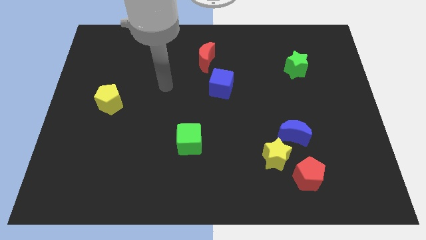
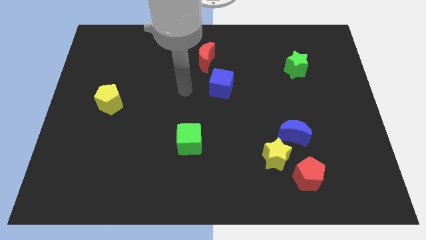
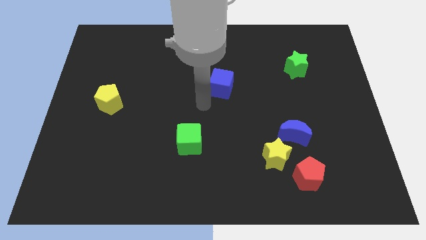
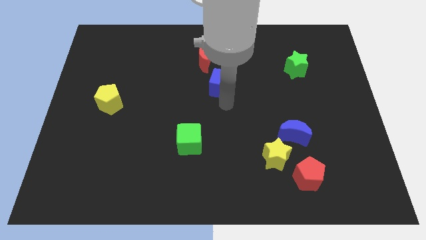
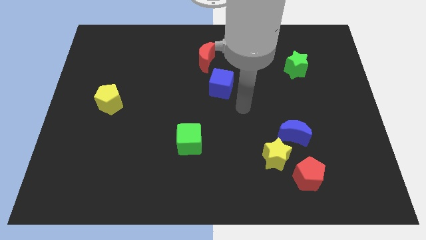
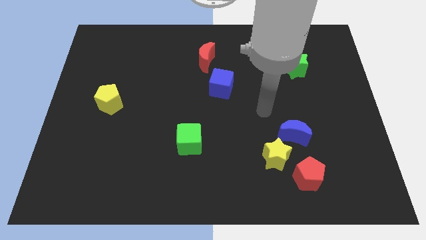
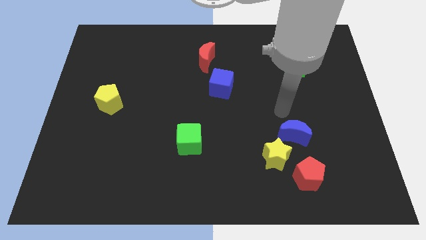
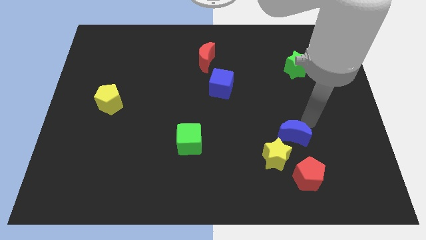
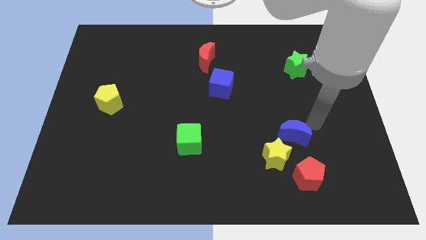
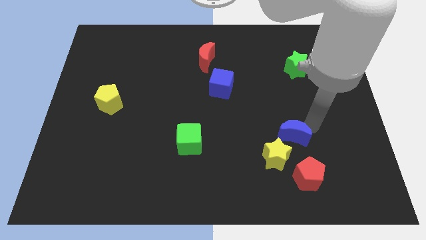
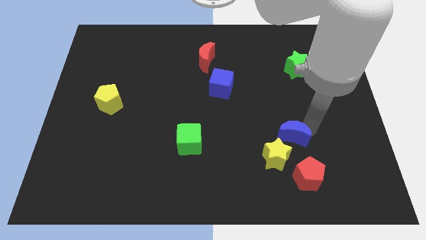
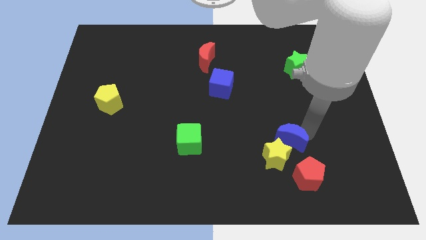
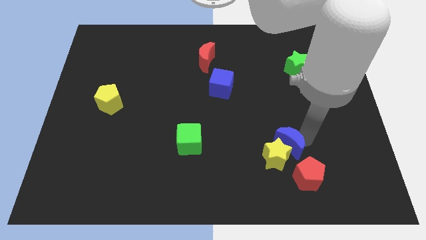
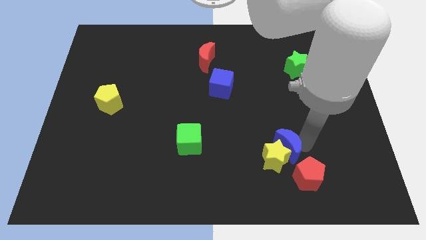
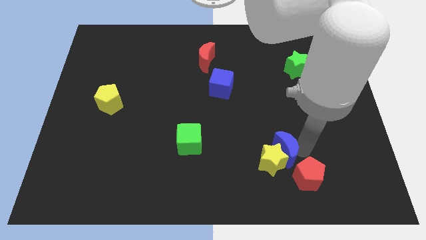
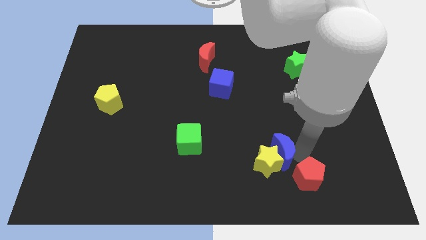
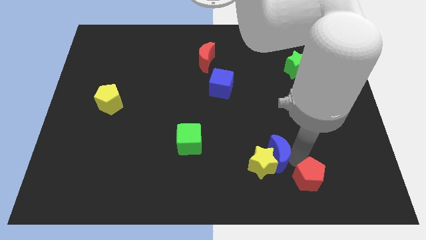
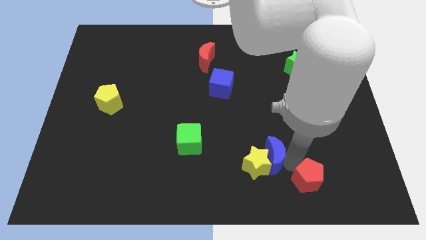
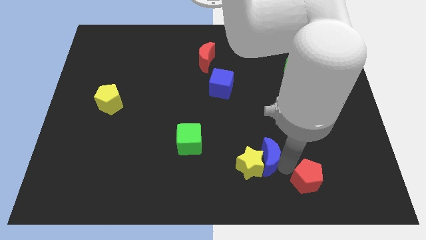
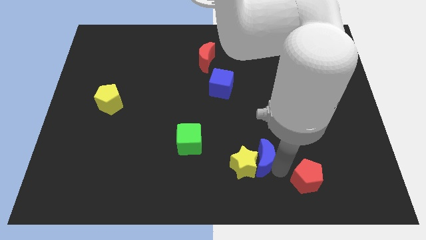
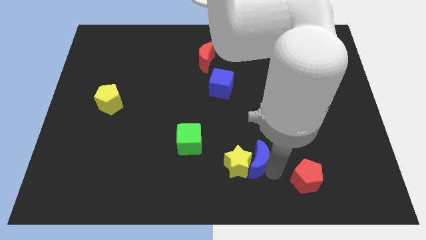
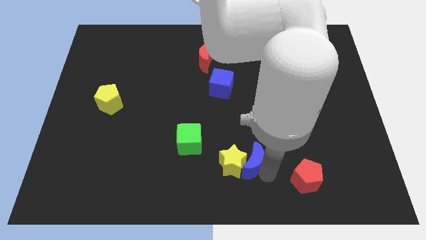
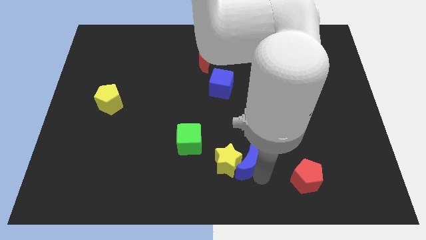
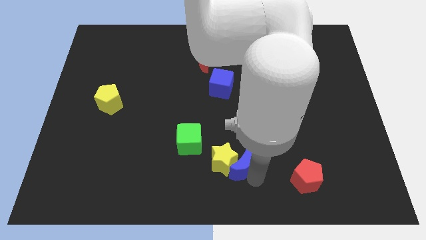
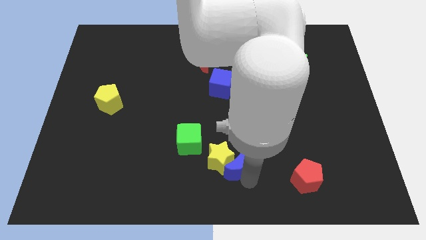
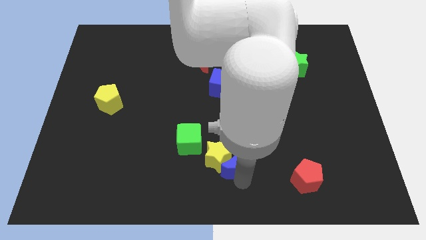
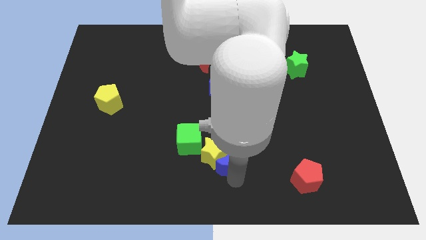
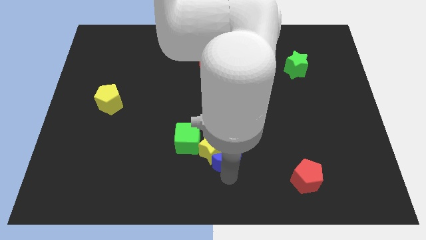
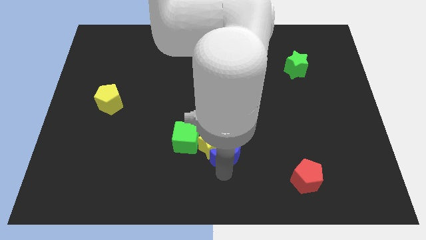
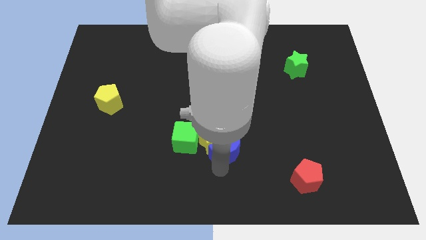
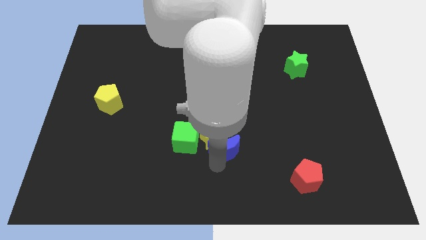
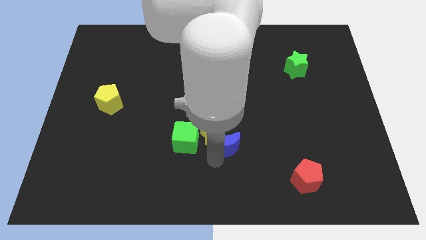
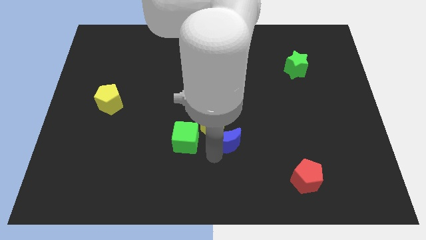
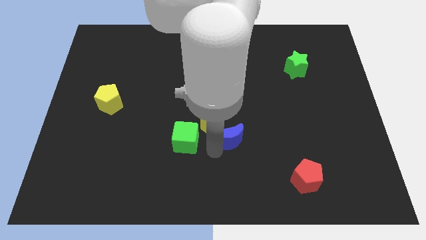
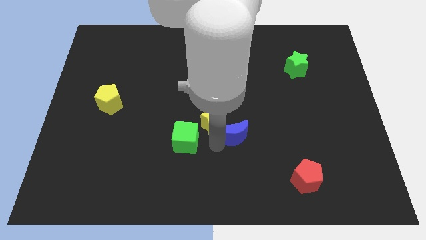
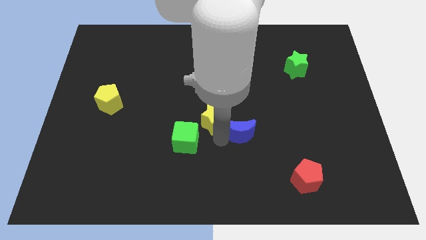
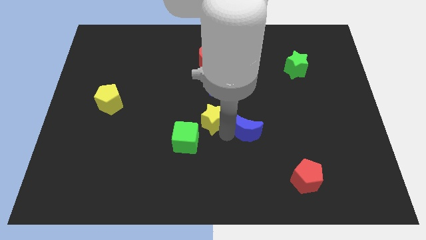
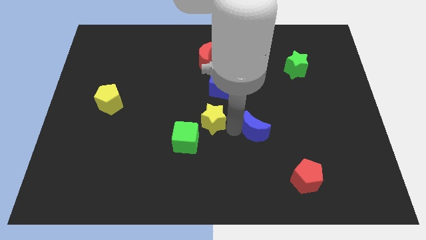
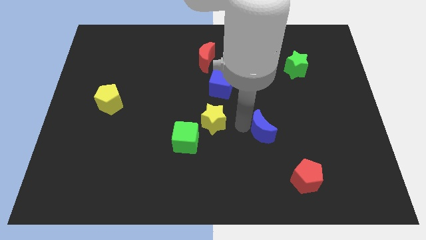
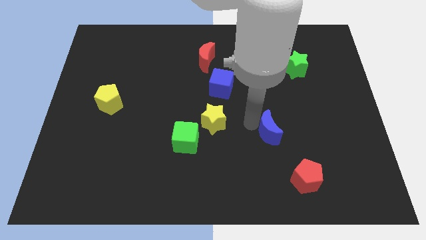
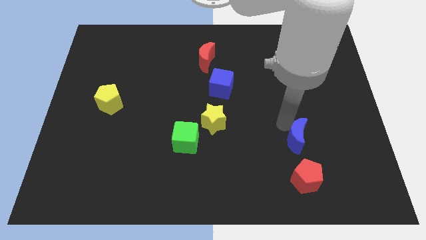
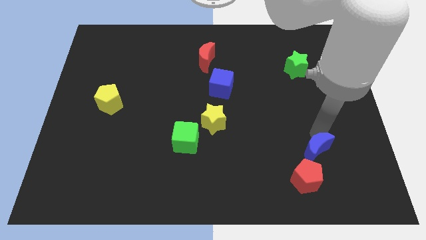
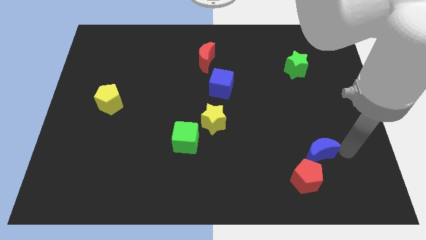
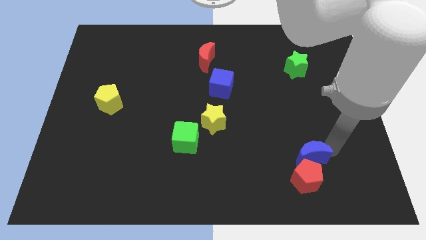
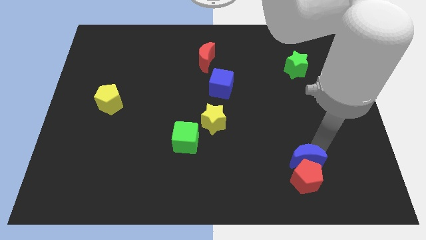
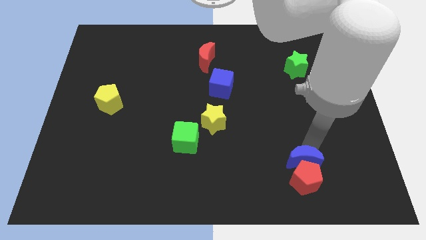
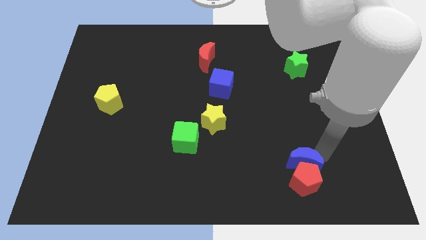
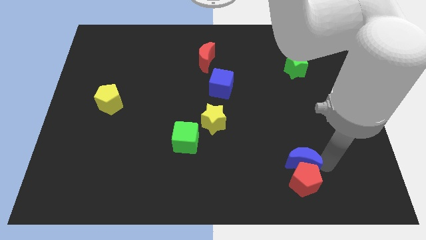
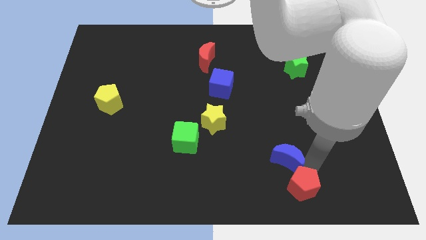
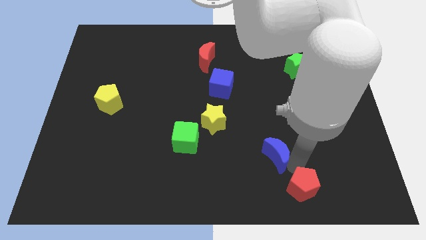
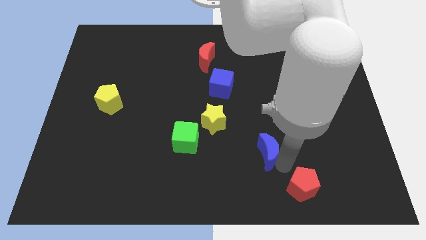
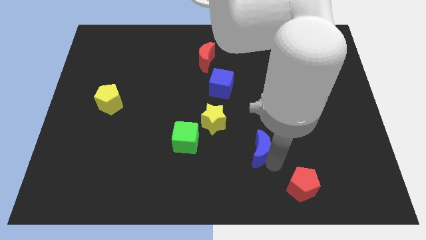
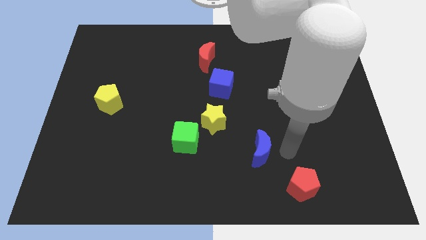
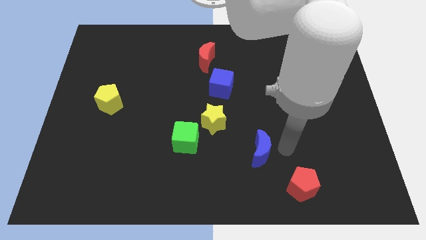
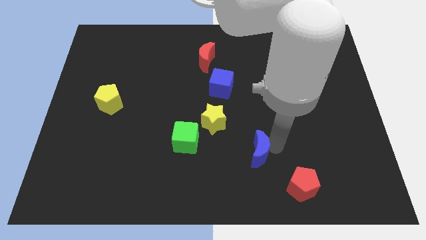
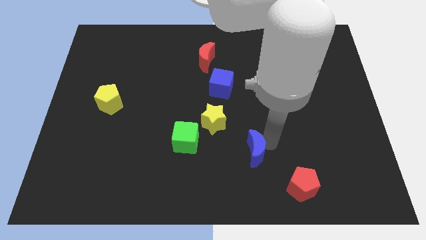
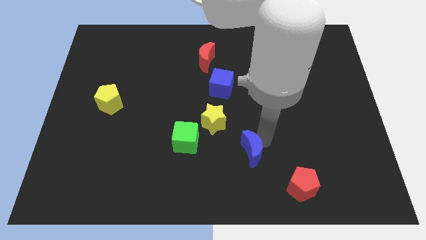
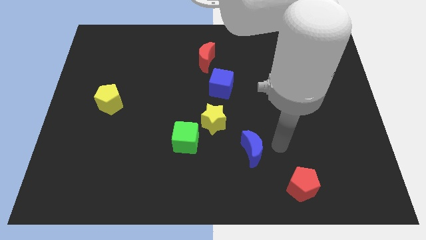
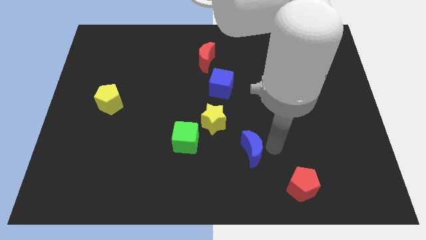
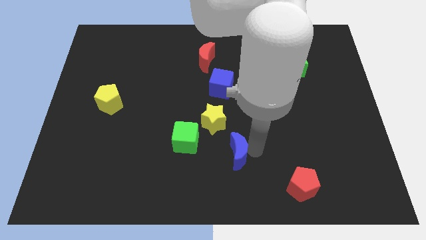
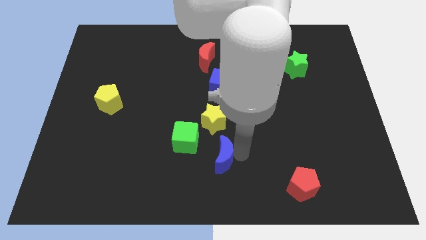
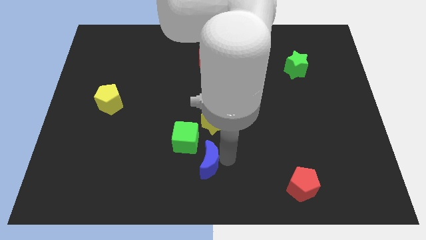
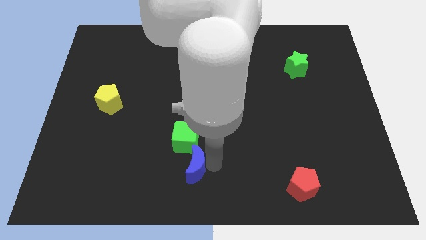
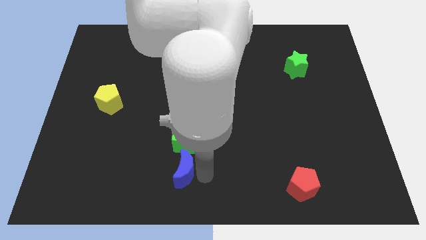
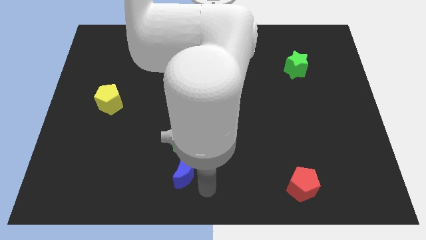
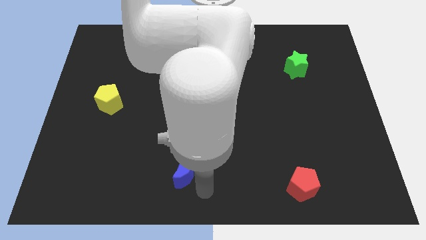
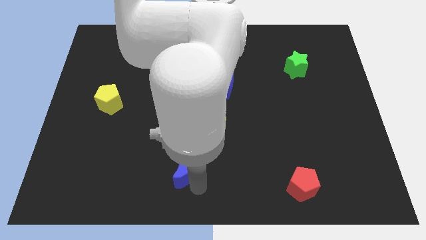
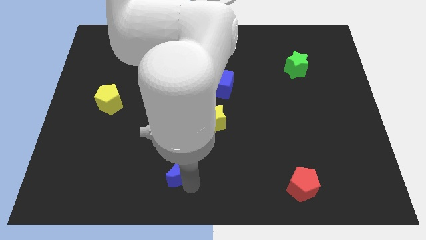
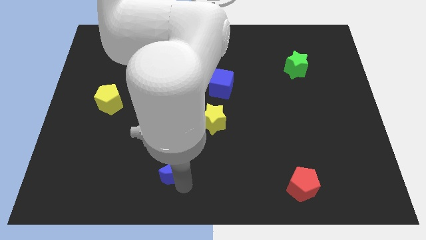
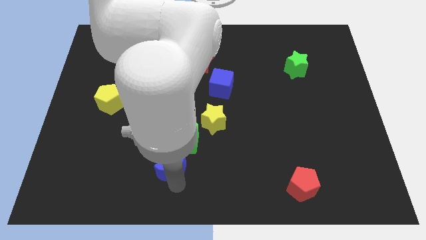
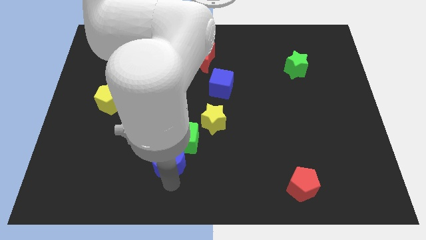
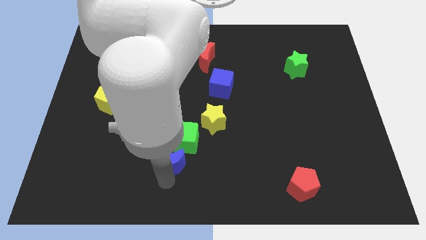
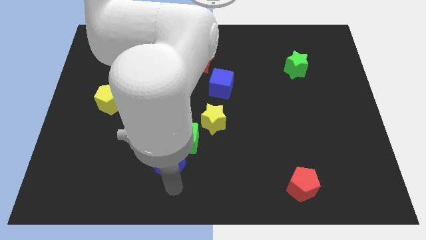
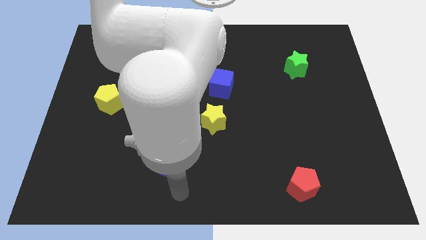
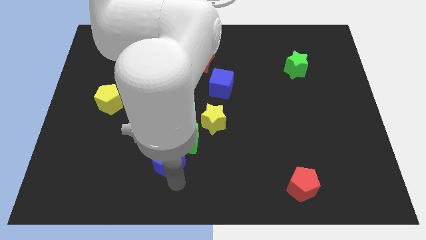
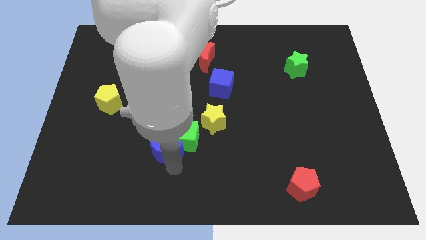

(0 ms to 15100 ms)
move the blue moon just left of the green cube
